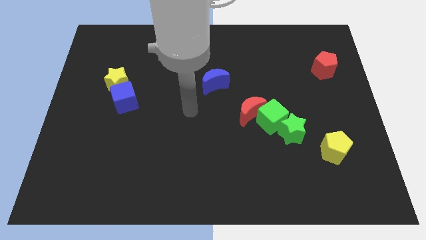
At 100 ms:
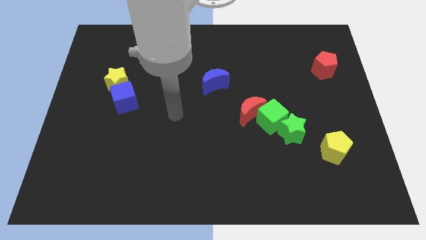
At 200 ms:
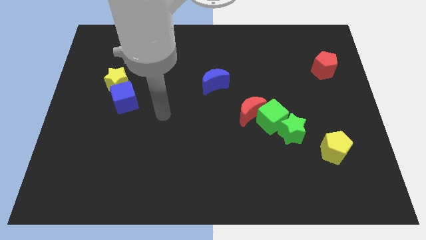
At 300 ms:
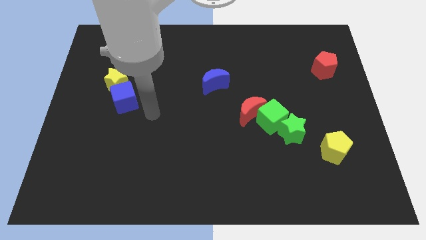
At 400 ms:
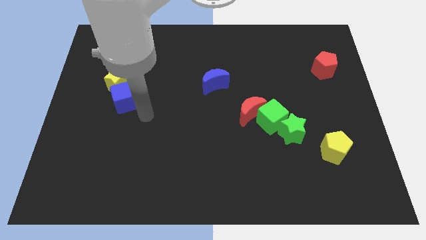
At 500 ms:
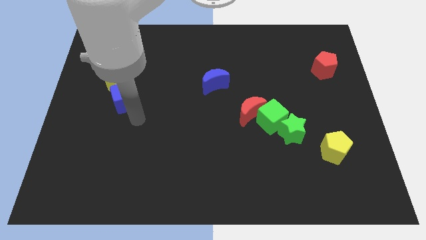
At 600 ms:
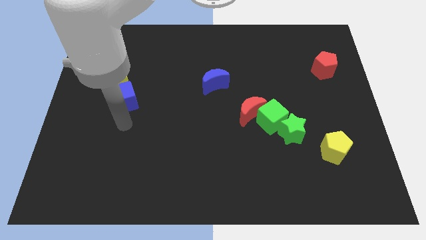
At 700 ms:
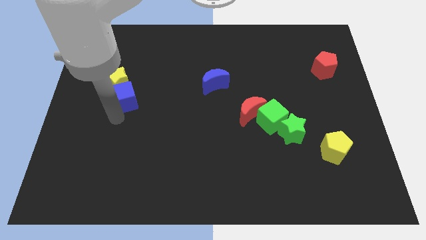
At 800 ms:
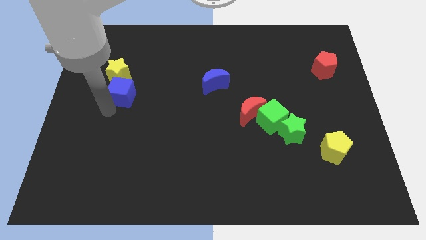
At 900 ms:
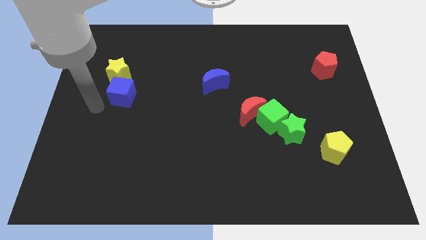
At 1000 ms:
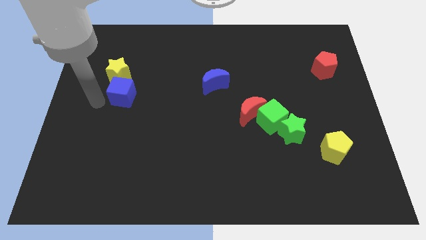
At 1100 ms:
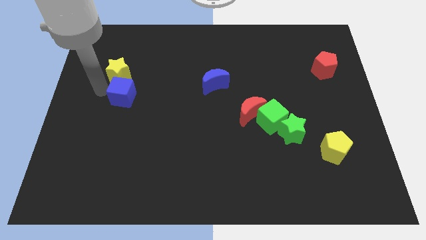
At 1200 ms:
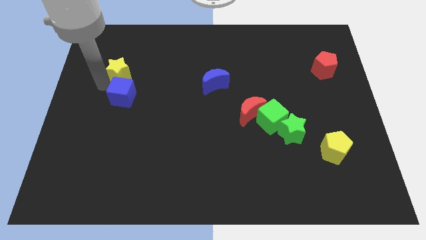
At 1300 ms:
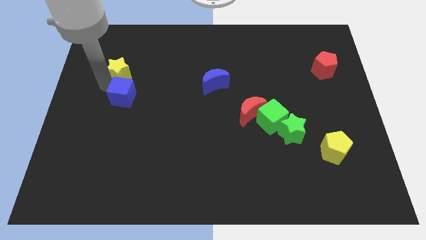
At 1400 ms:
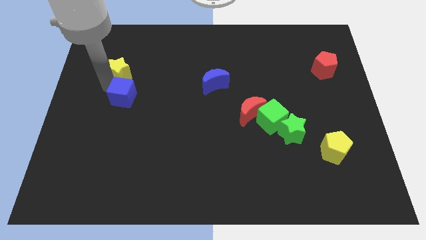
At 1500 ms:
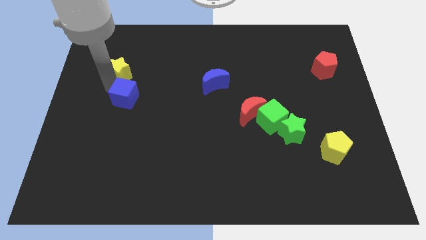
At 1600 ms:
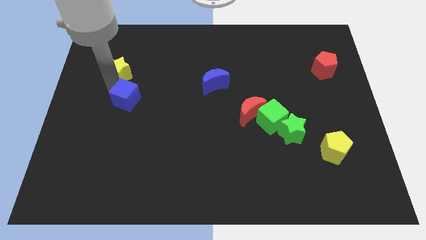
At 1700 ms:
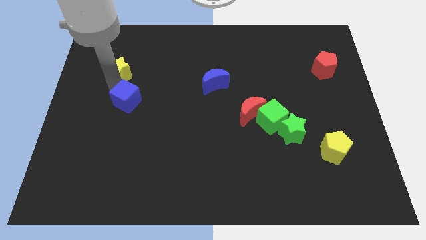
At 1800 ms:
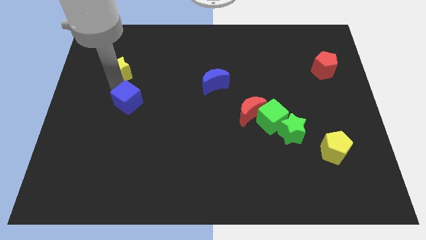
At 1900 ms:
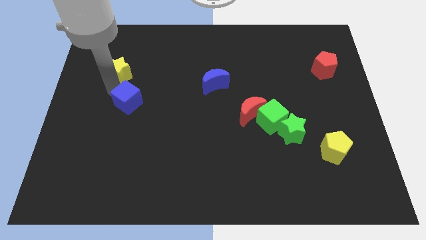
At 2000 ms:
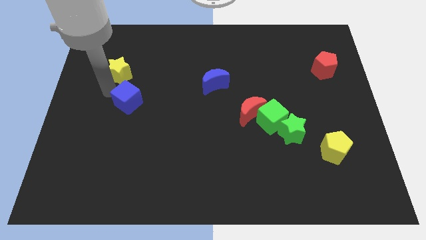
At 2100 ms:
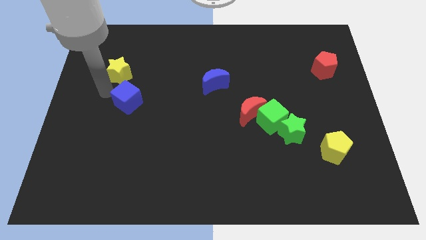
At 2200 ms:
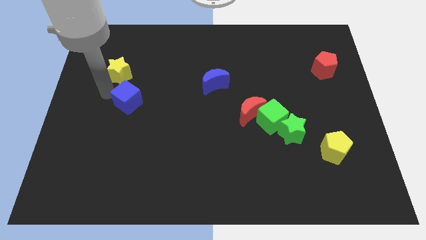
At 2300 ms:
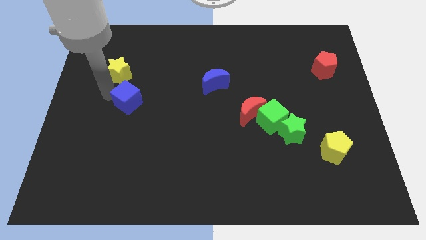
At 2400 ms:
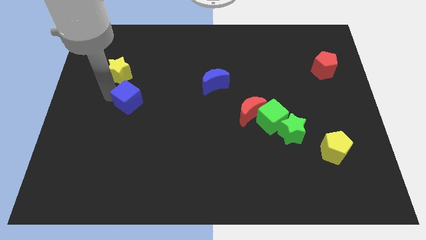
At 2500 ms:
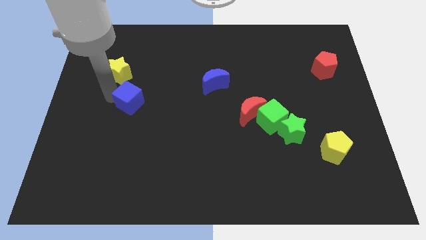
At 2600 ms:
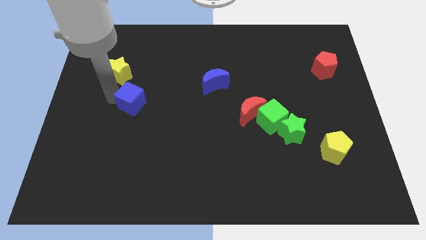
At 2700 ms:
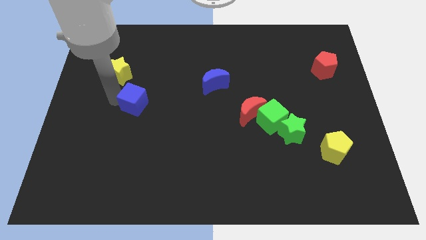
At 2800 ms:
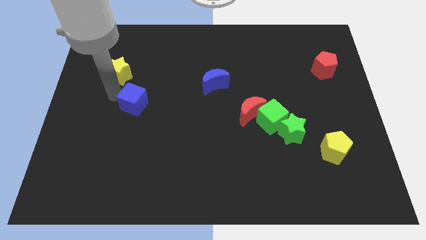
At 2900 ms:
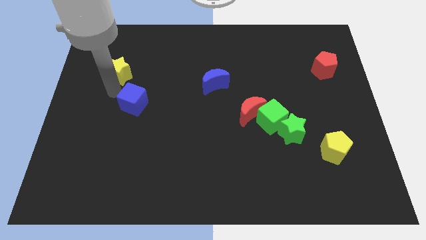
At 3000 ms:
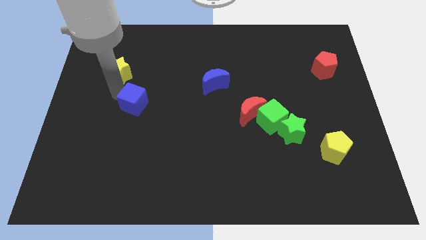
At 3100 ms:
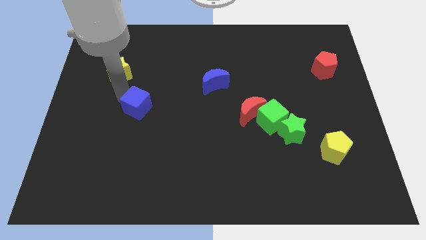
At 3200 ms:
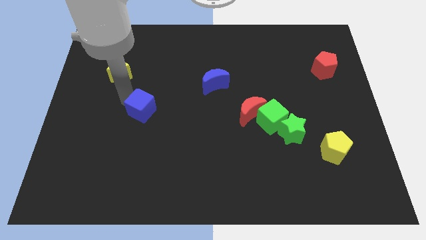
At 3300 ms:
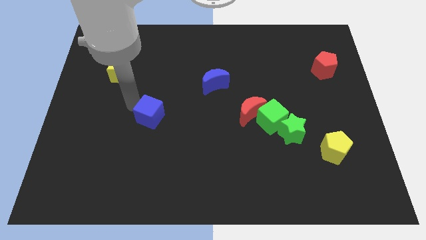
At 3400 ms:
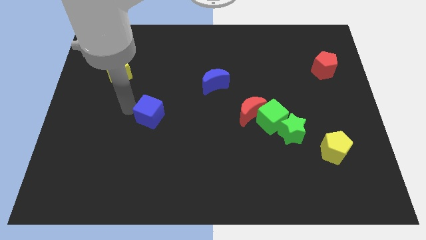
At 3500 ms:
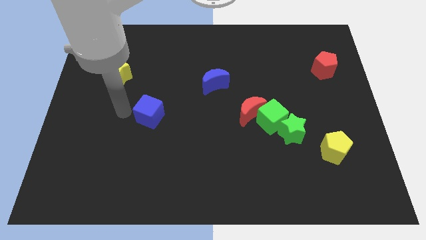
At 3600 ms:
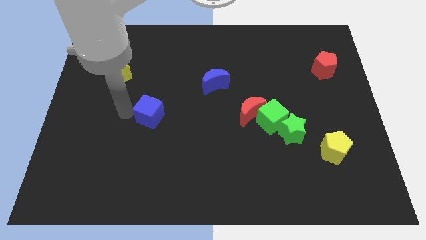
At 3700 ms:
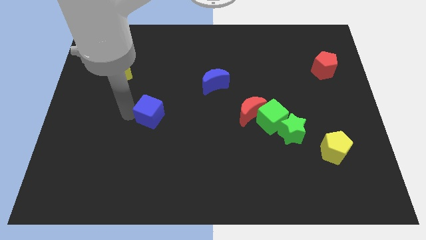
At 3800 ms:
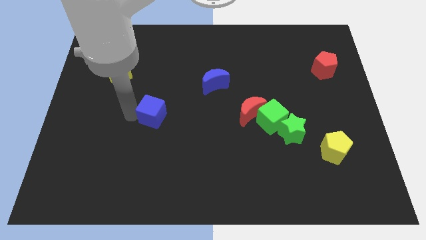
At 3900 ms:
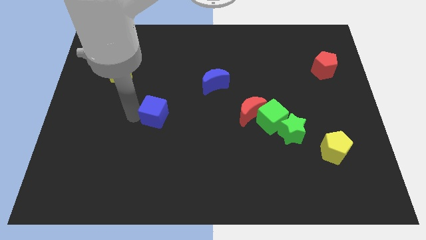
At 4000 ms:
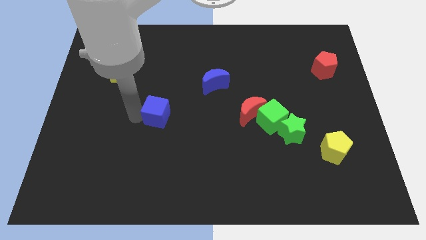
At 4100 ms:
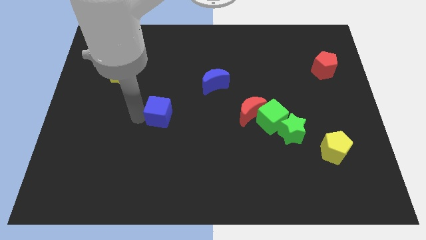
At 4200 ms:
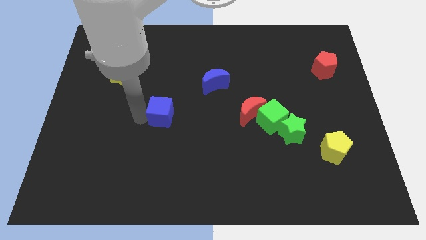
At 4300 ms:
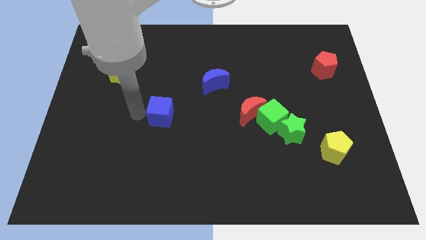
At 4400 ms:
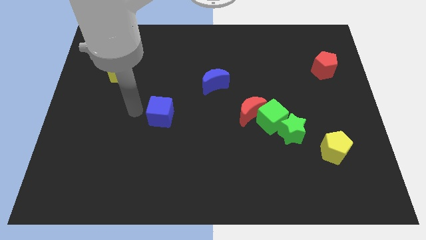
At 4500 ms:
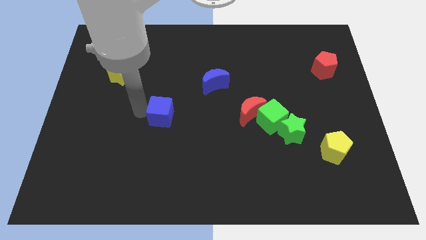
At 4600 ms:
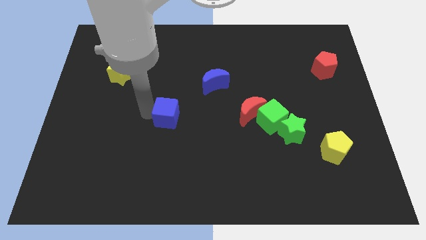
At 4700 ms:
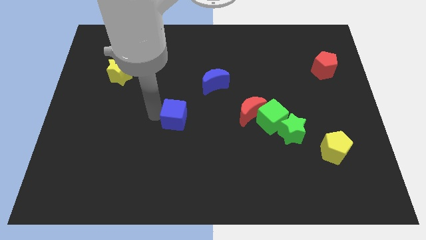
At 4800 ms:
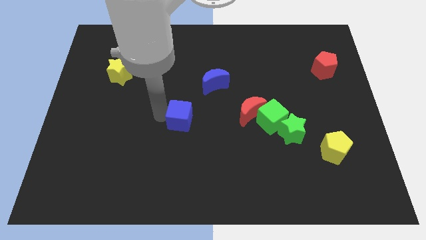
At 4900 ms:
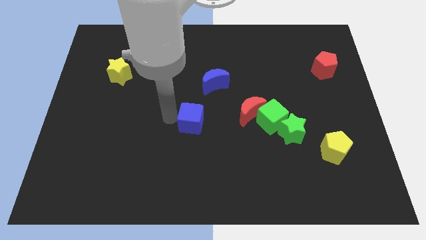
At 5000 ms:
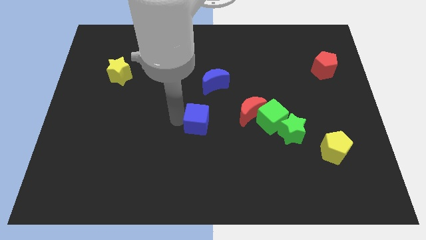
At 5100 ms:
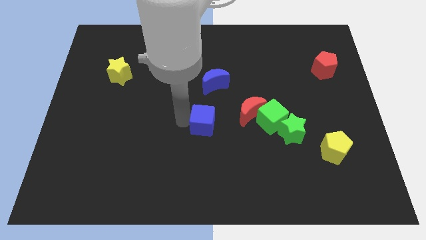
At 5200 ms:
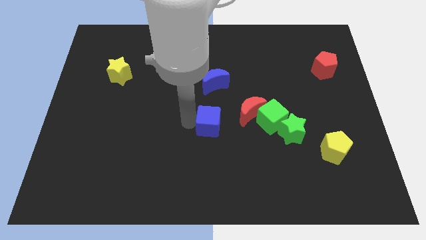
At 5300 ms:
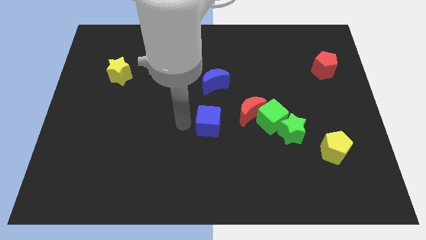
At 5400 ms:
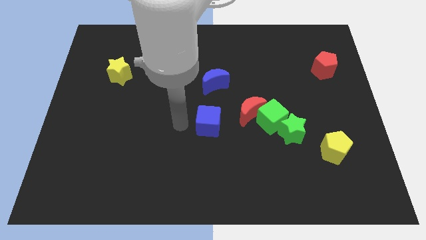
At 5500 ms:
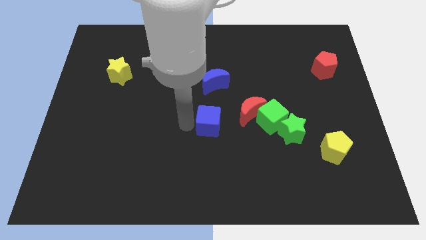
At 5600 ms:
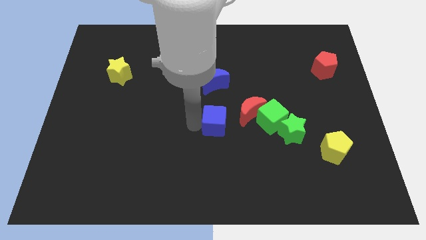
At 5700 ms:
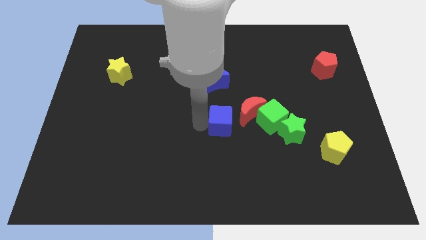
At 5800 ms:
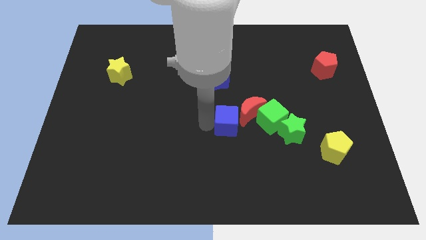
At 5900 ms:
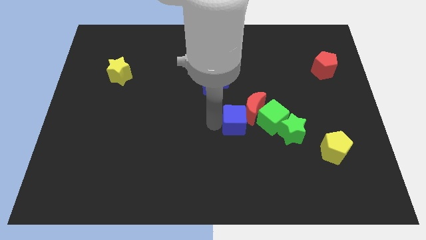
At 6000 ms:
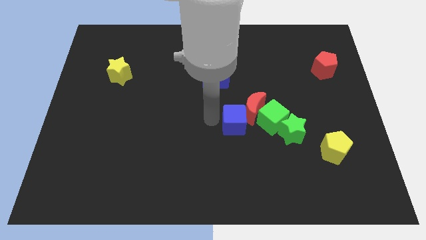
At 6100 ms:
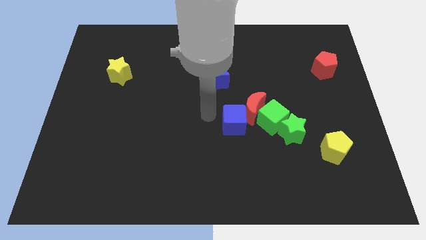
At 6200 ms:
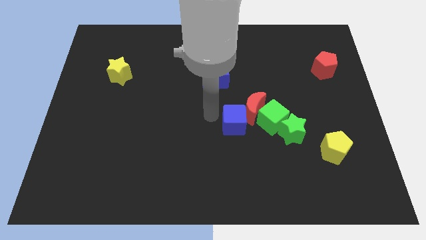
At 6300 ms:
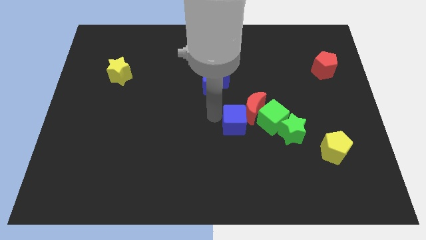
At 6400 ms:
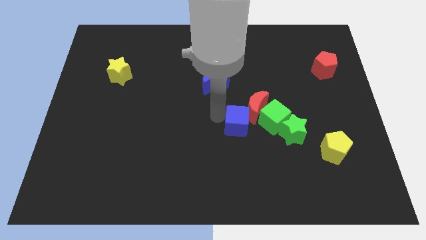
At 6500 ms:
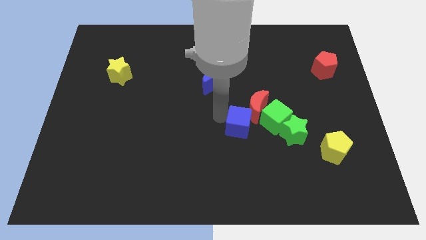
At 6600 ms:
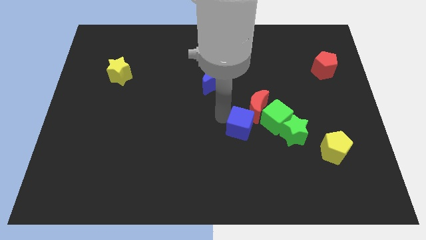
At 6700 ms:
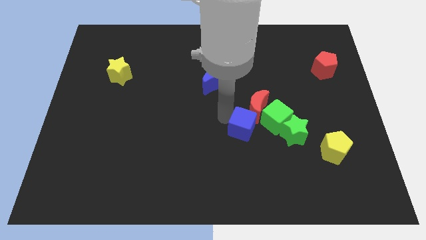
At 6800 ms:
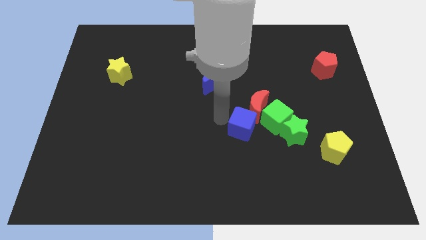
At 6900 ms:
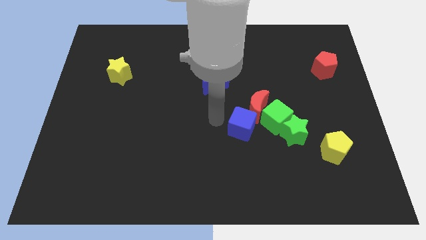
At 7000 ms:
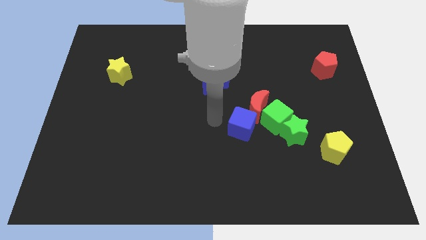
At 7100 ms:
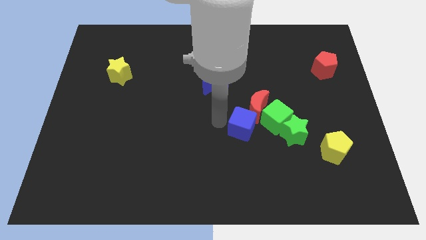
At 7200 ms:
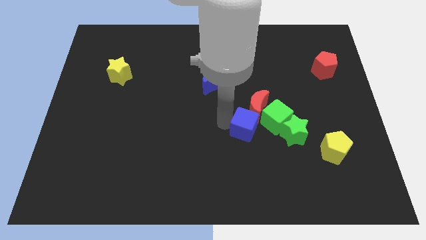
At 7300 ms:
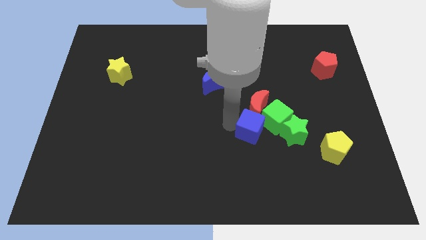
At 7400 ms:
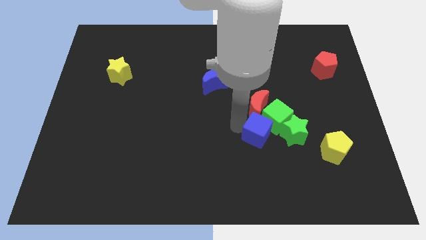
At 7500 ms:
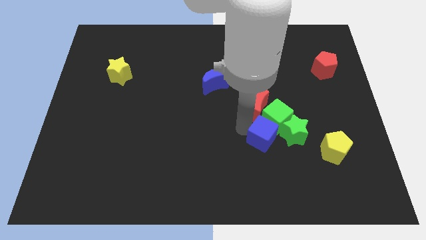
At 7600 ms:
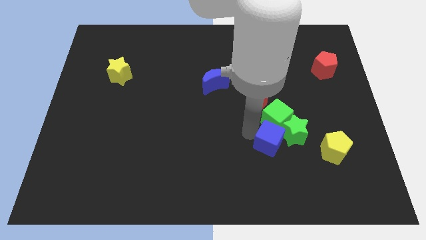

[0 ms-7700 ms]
push the blue cube to the green star

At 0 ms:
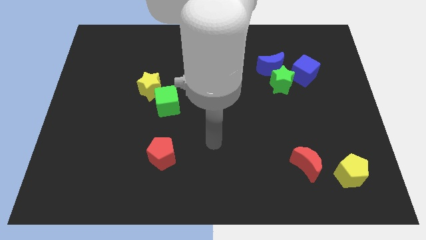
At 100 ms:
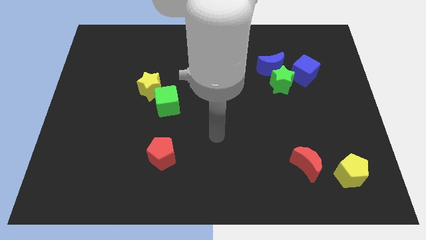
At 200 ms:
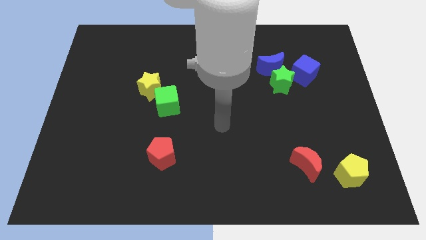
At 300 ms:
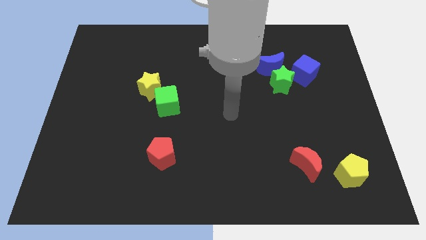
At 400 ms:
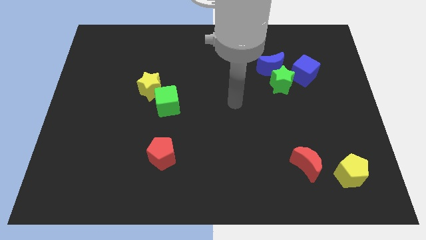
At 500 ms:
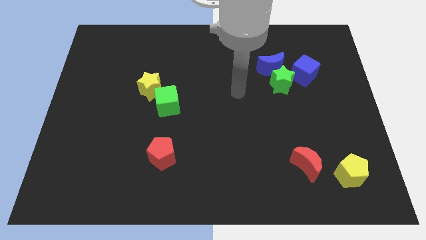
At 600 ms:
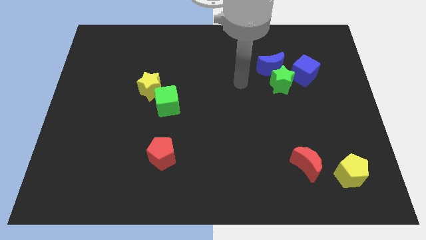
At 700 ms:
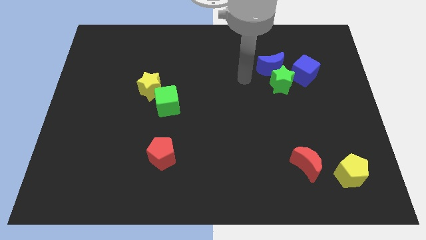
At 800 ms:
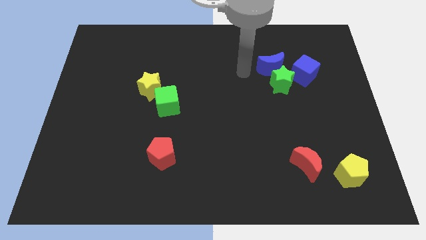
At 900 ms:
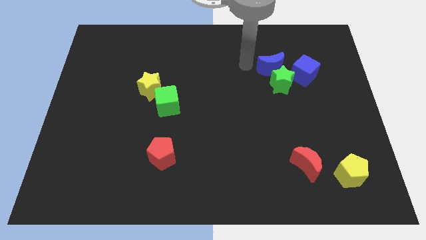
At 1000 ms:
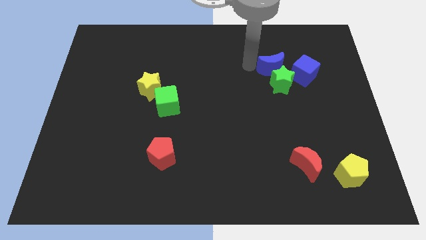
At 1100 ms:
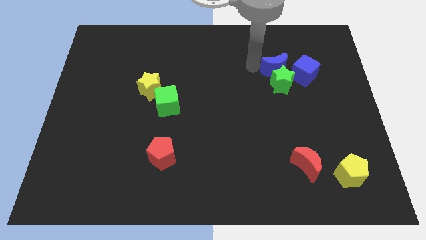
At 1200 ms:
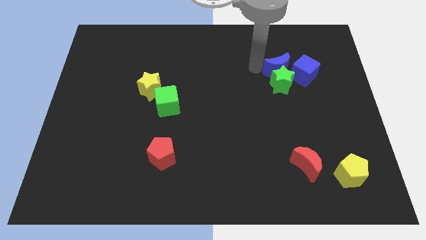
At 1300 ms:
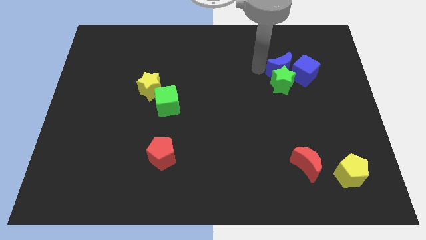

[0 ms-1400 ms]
put the blue moon towards the blue cube
